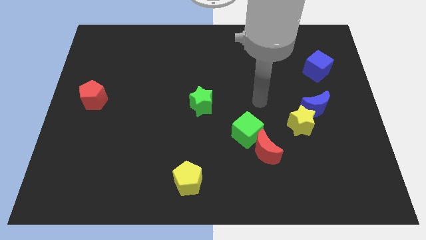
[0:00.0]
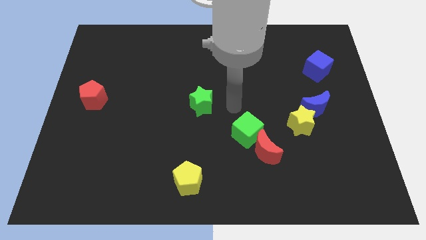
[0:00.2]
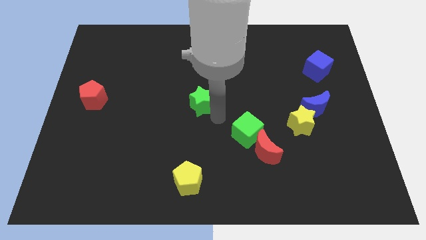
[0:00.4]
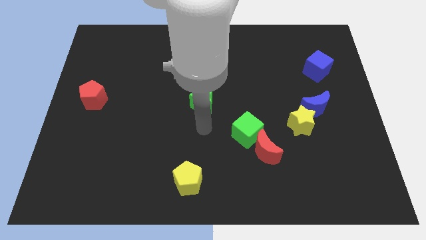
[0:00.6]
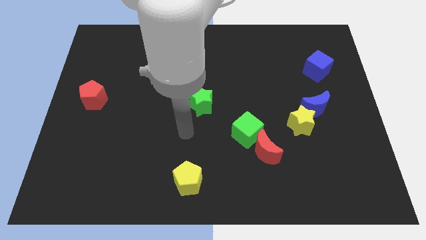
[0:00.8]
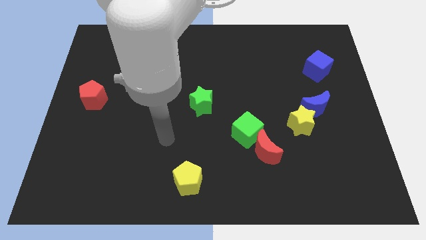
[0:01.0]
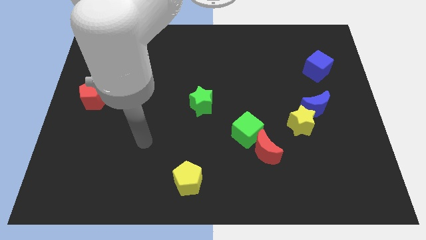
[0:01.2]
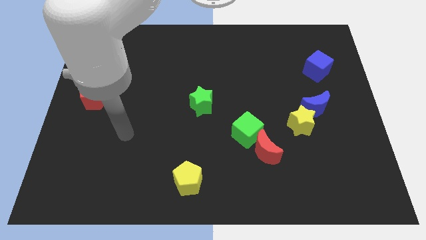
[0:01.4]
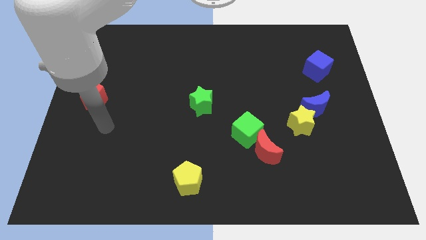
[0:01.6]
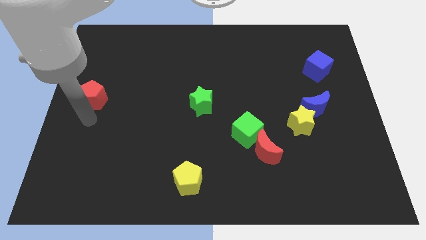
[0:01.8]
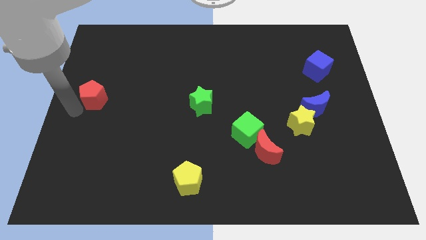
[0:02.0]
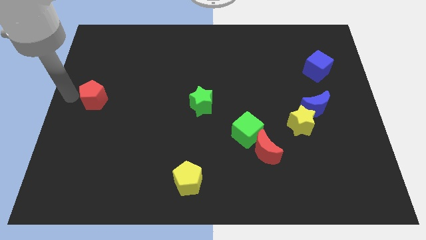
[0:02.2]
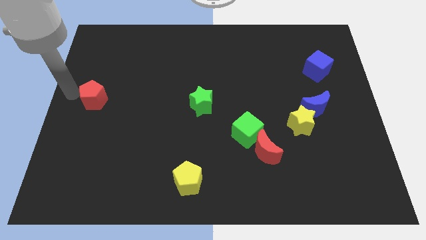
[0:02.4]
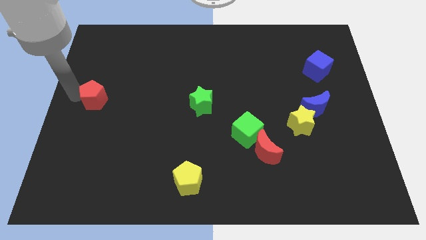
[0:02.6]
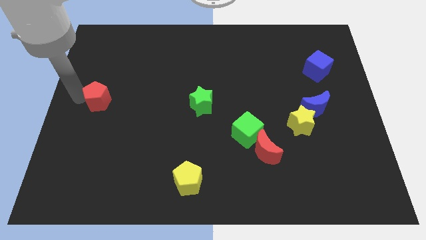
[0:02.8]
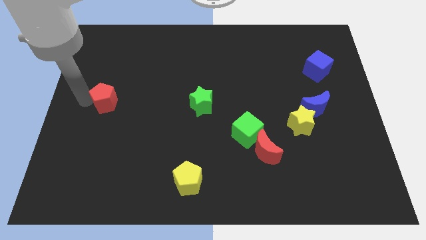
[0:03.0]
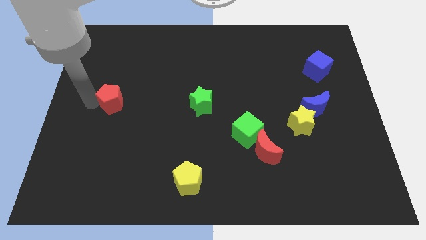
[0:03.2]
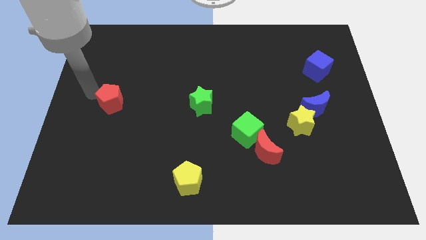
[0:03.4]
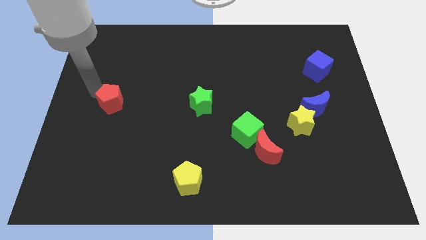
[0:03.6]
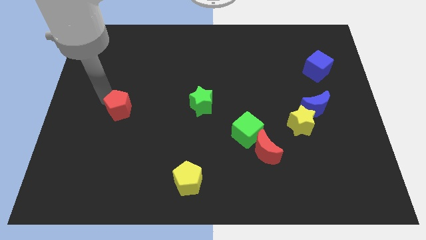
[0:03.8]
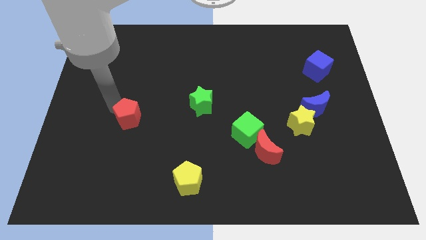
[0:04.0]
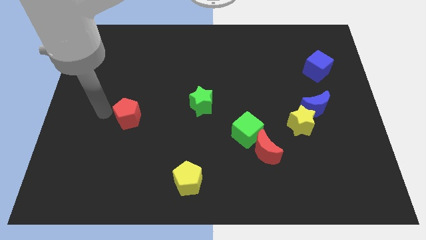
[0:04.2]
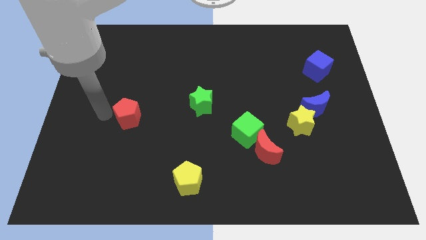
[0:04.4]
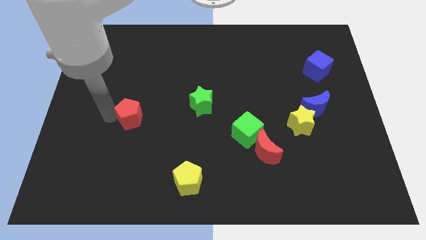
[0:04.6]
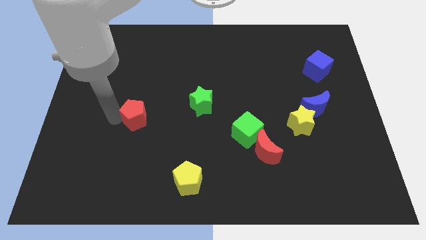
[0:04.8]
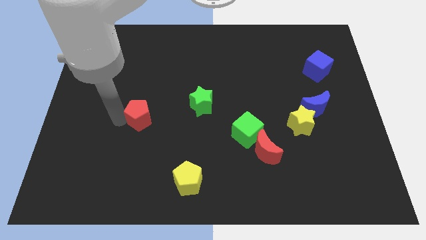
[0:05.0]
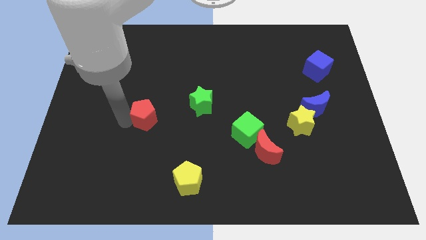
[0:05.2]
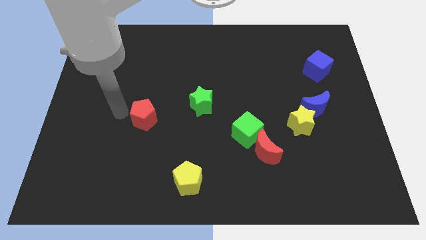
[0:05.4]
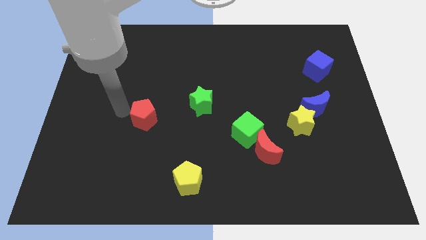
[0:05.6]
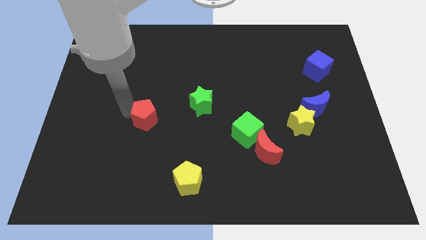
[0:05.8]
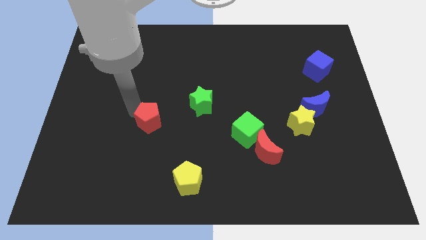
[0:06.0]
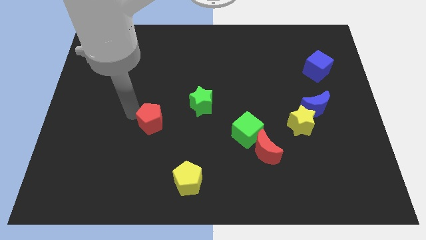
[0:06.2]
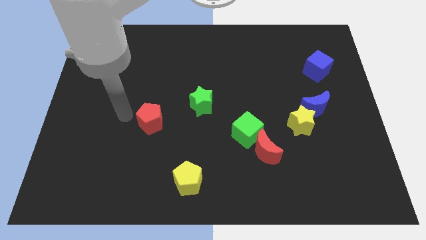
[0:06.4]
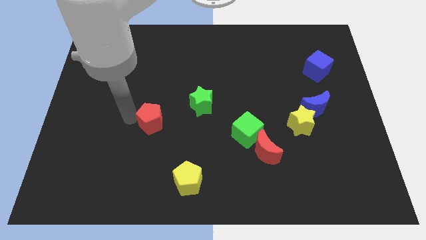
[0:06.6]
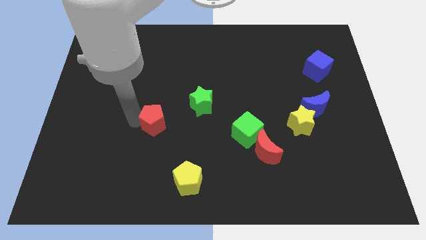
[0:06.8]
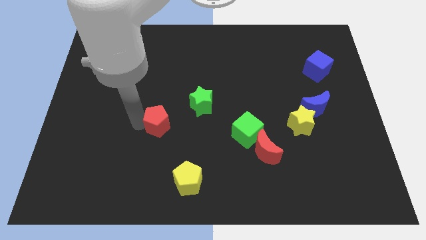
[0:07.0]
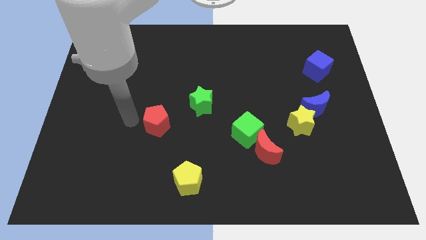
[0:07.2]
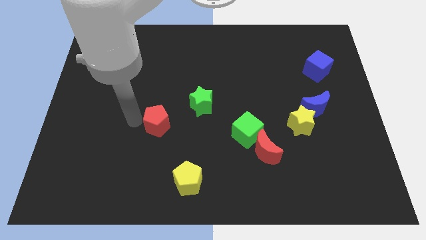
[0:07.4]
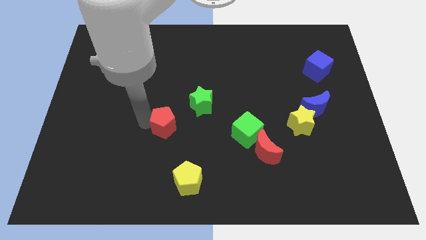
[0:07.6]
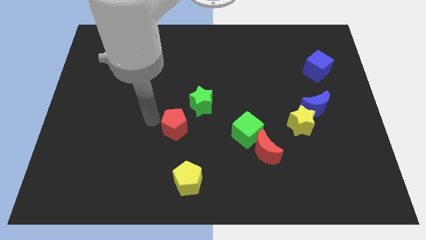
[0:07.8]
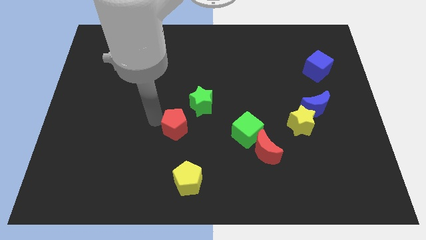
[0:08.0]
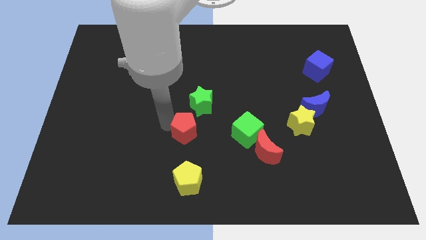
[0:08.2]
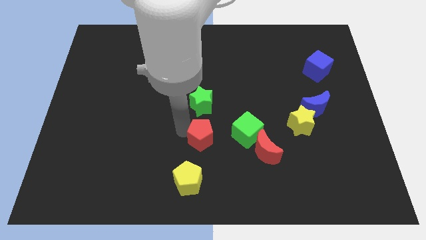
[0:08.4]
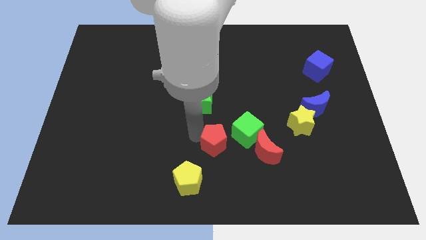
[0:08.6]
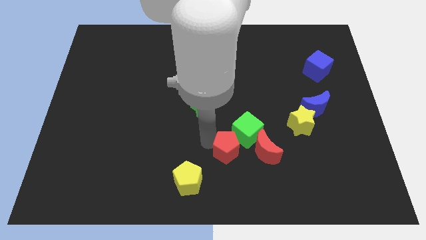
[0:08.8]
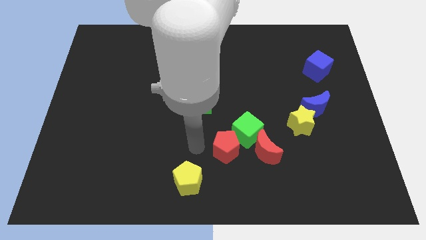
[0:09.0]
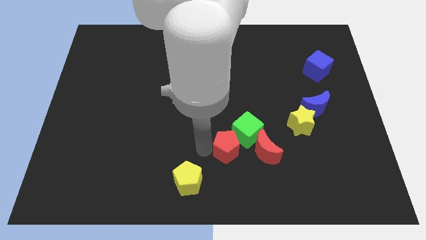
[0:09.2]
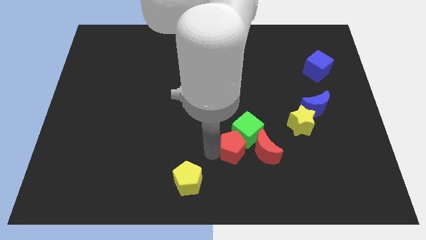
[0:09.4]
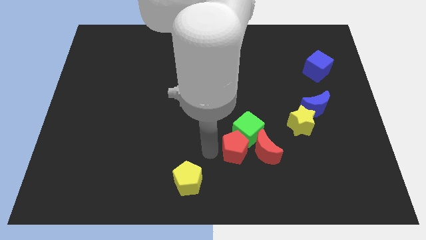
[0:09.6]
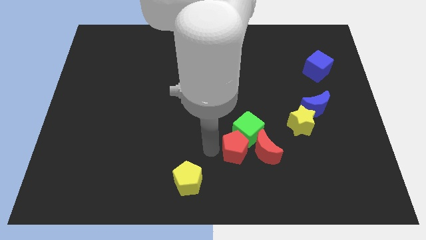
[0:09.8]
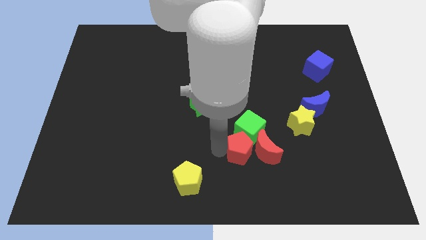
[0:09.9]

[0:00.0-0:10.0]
slide the red pentagon close to the red moon

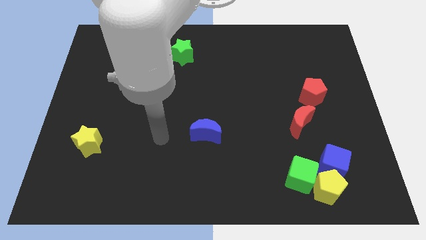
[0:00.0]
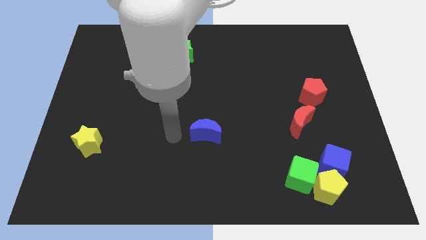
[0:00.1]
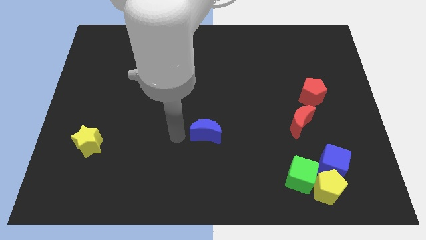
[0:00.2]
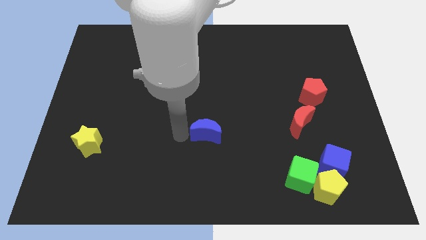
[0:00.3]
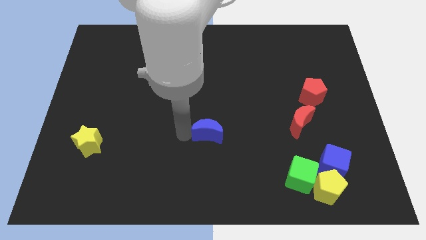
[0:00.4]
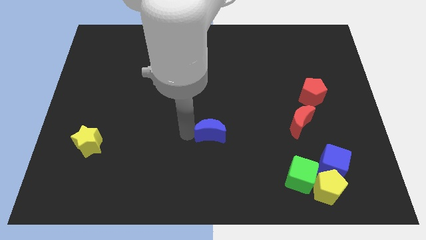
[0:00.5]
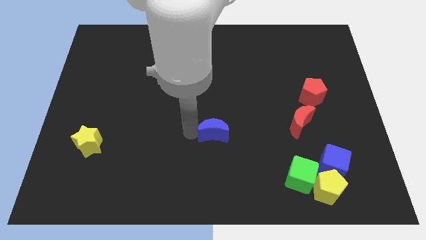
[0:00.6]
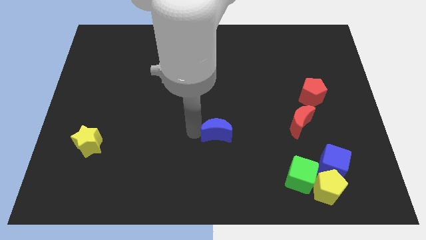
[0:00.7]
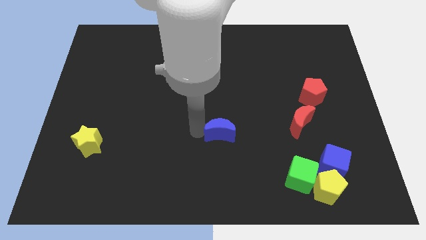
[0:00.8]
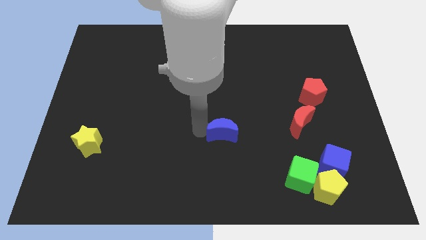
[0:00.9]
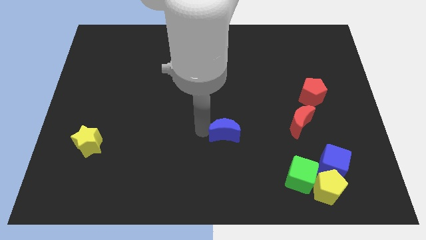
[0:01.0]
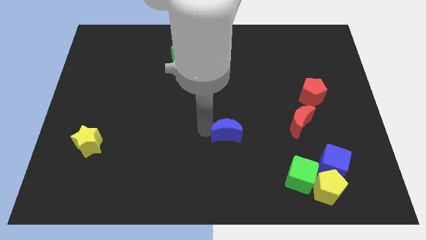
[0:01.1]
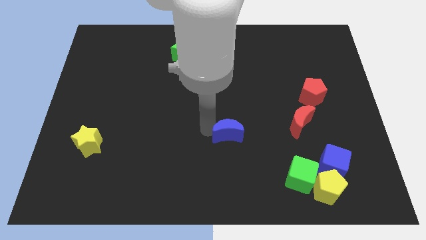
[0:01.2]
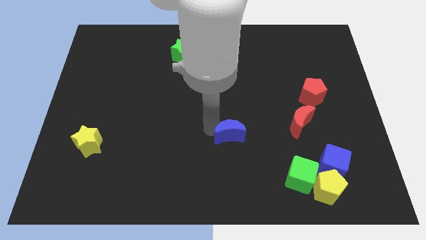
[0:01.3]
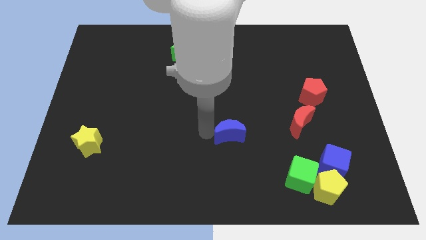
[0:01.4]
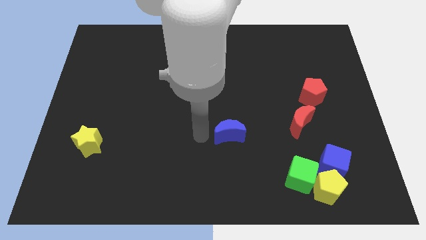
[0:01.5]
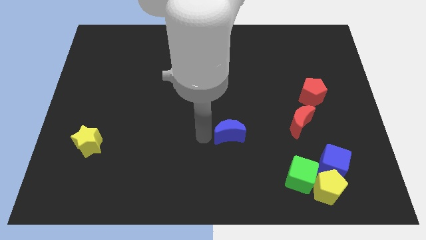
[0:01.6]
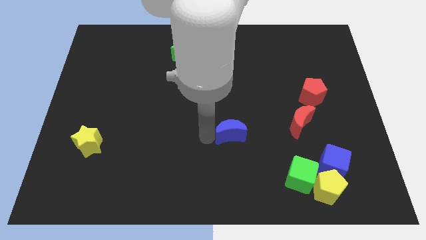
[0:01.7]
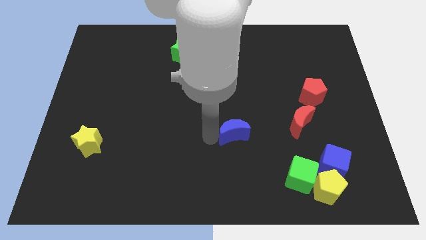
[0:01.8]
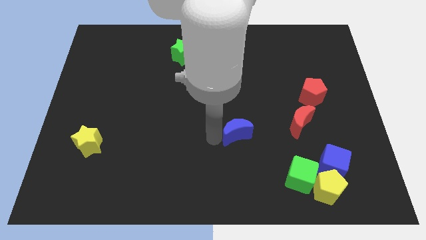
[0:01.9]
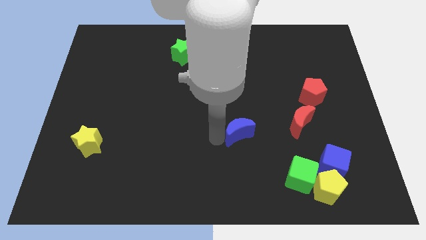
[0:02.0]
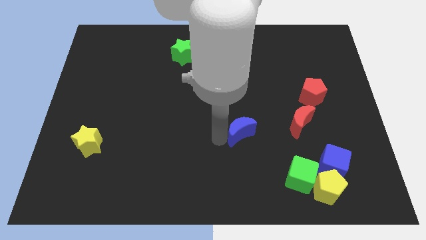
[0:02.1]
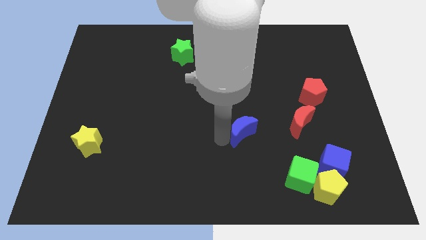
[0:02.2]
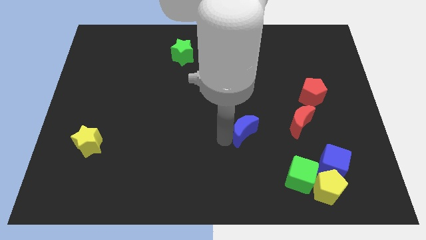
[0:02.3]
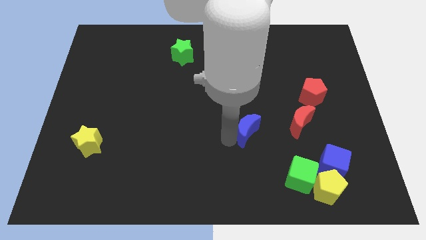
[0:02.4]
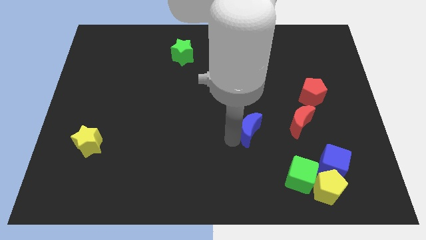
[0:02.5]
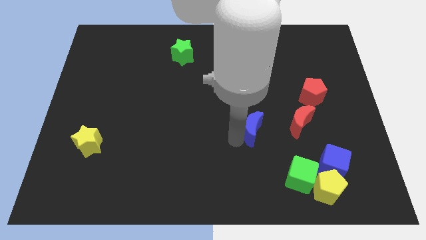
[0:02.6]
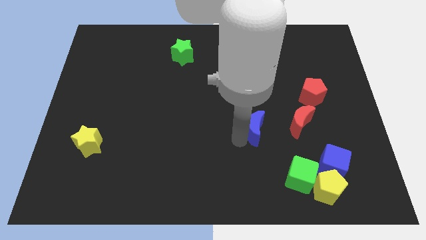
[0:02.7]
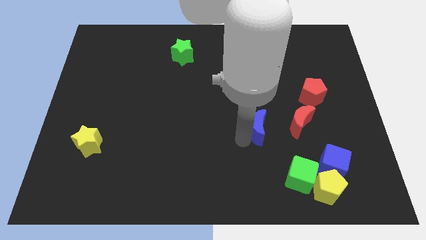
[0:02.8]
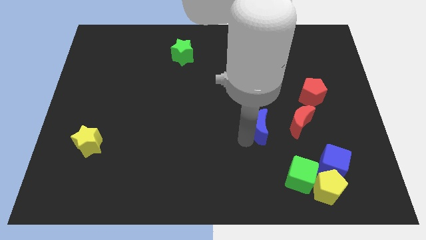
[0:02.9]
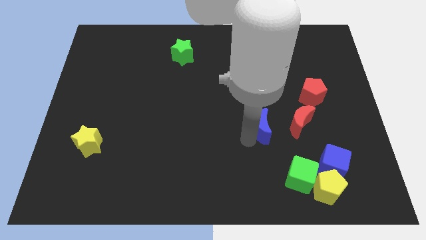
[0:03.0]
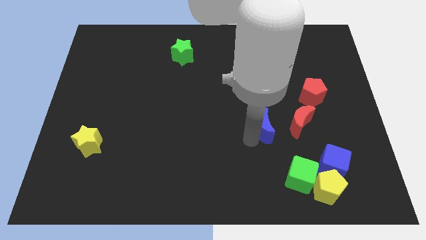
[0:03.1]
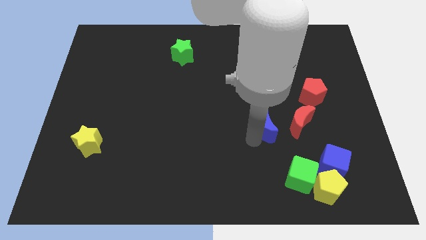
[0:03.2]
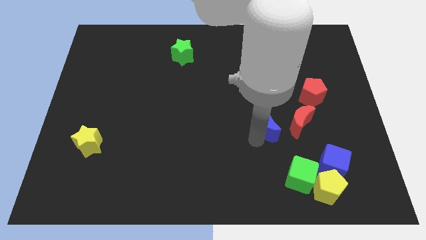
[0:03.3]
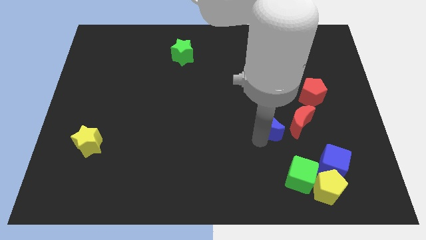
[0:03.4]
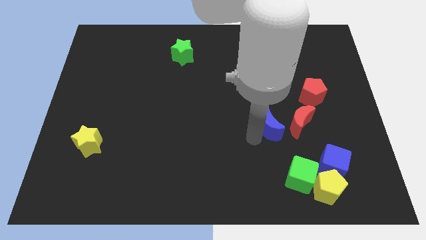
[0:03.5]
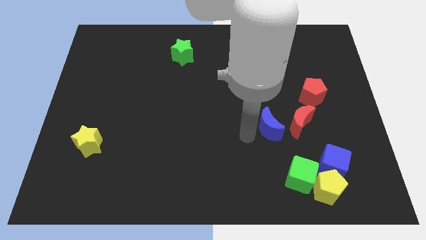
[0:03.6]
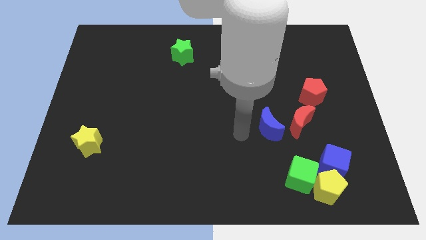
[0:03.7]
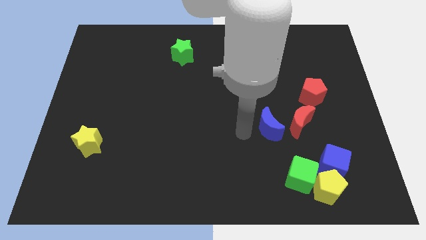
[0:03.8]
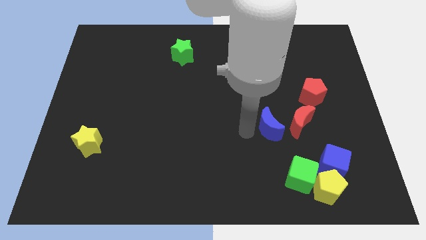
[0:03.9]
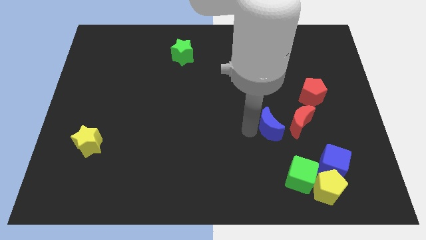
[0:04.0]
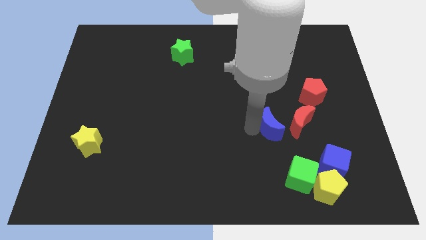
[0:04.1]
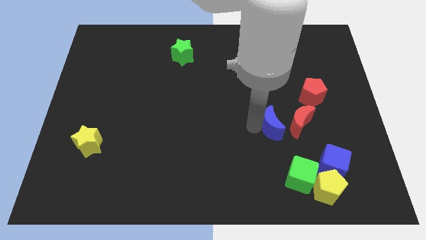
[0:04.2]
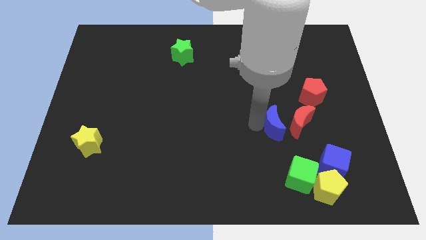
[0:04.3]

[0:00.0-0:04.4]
push the blue moon next to the red moon
